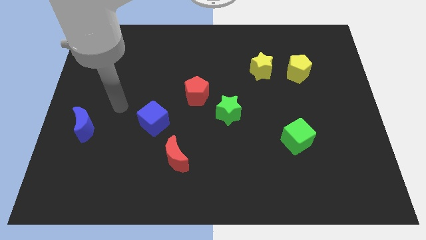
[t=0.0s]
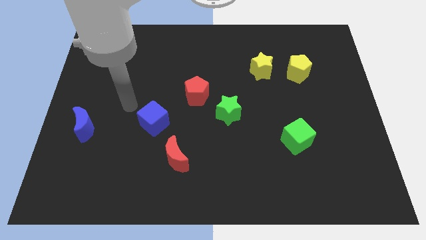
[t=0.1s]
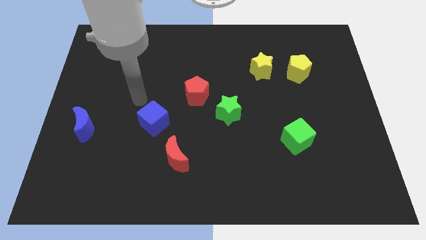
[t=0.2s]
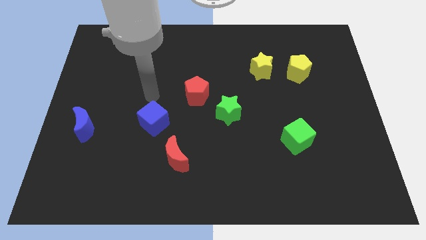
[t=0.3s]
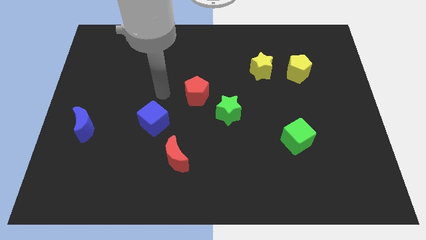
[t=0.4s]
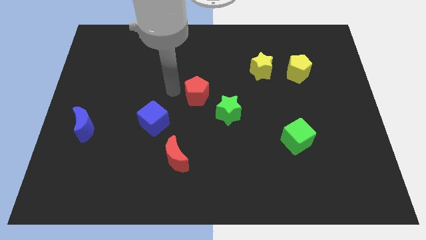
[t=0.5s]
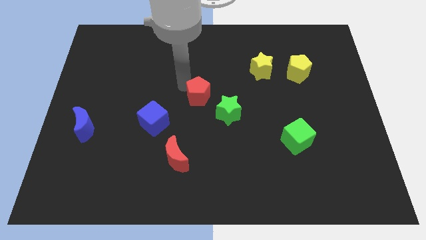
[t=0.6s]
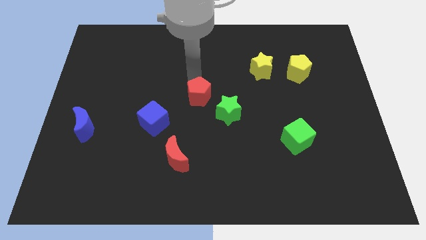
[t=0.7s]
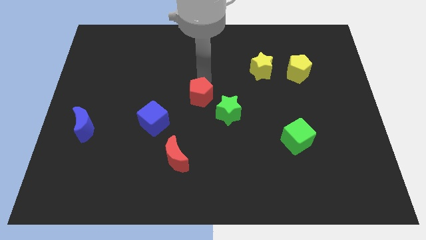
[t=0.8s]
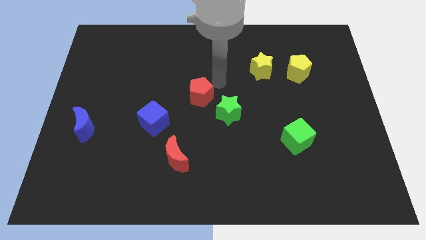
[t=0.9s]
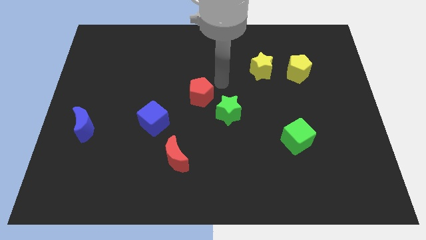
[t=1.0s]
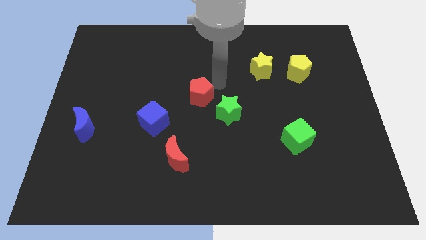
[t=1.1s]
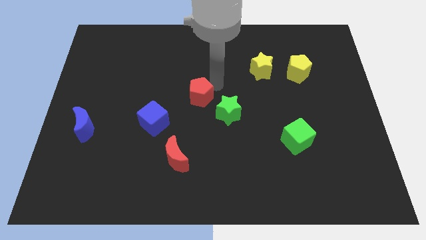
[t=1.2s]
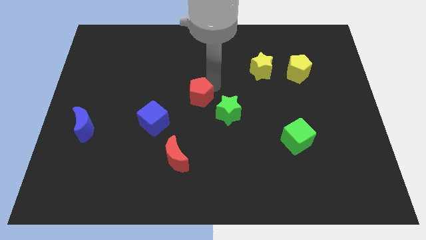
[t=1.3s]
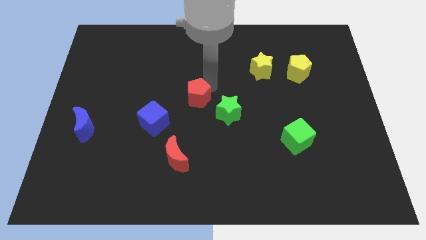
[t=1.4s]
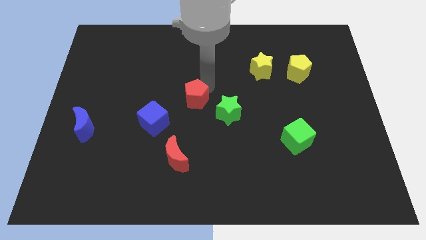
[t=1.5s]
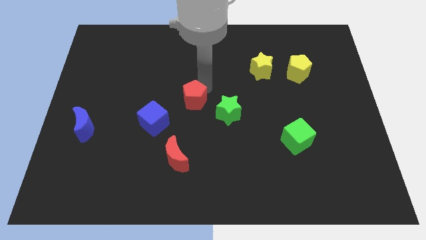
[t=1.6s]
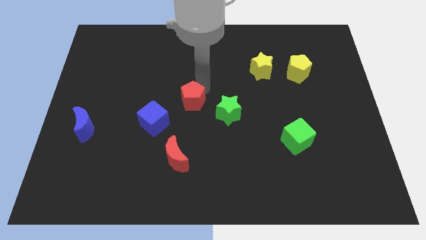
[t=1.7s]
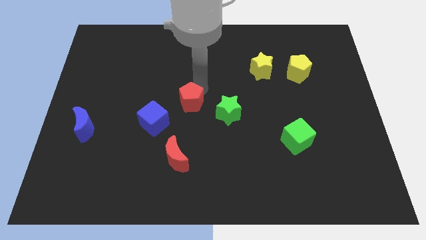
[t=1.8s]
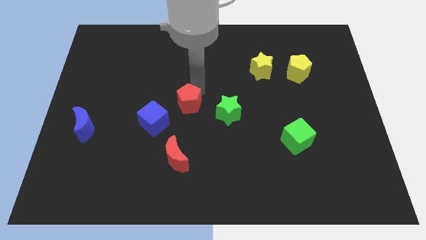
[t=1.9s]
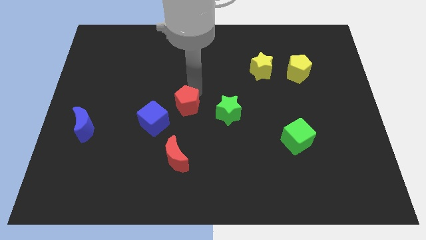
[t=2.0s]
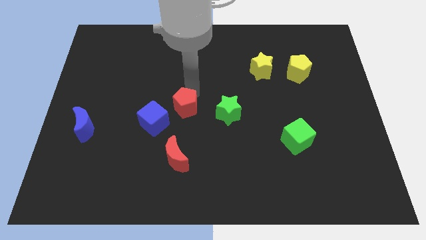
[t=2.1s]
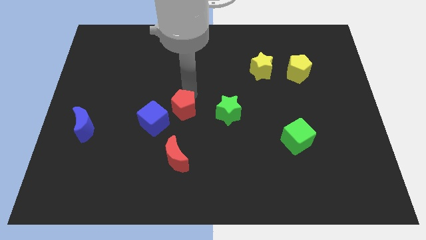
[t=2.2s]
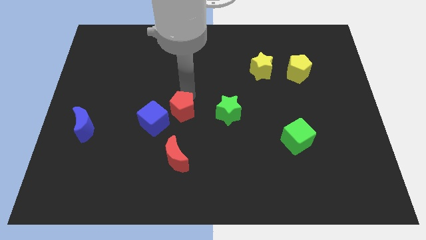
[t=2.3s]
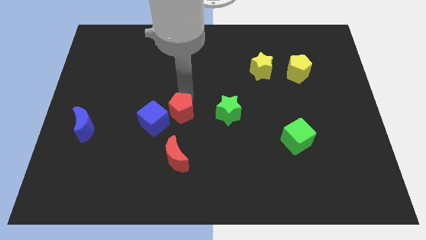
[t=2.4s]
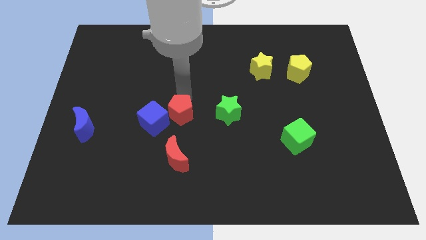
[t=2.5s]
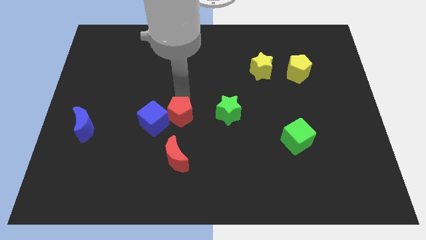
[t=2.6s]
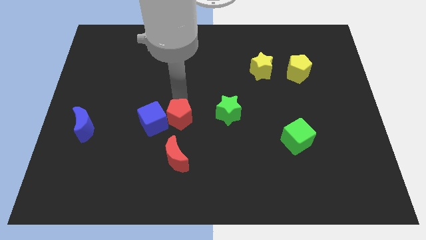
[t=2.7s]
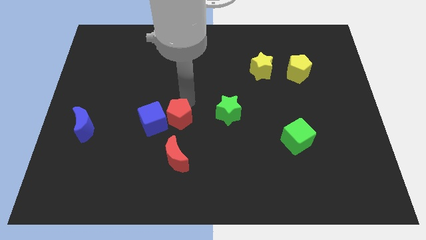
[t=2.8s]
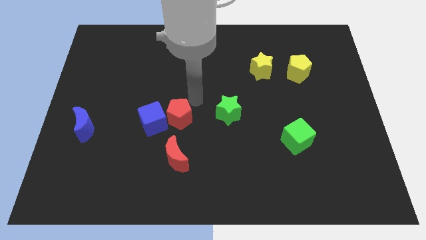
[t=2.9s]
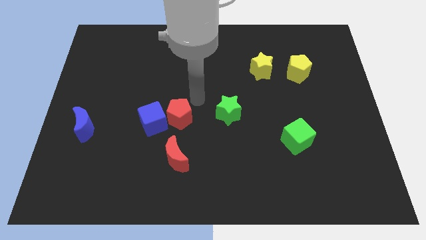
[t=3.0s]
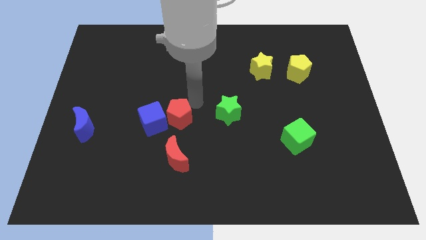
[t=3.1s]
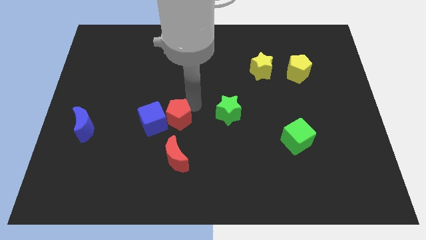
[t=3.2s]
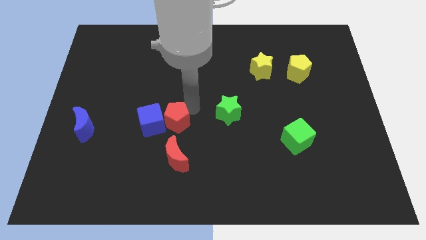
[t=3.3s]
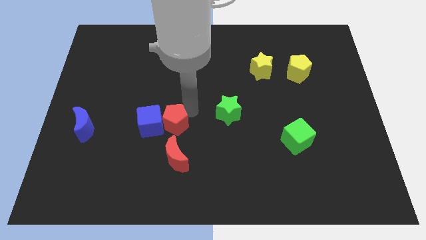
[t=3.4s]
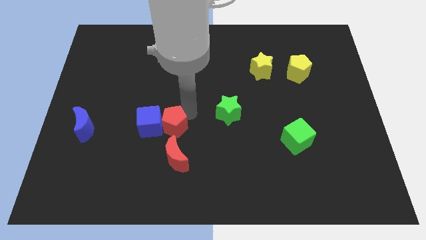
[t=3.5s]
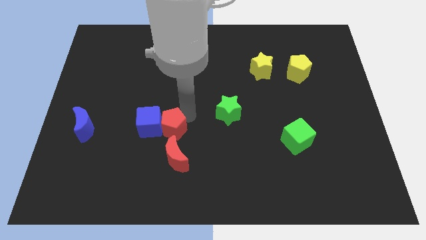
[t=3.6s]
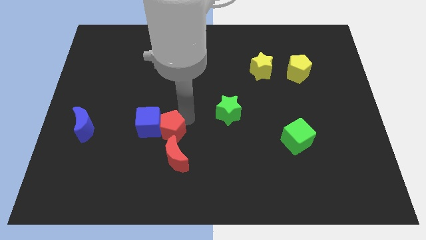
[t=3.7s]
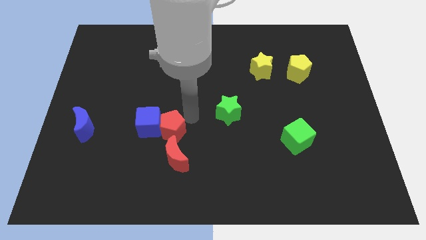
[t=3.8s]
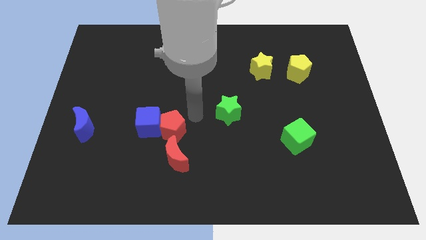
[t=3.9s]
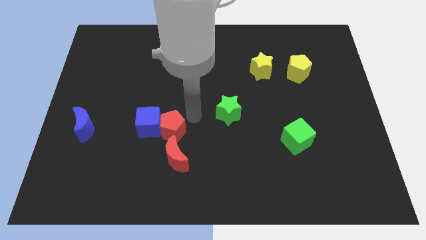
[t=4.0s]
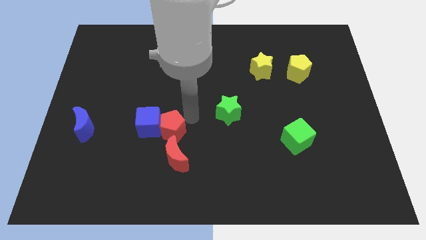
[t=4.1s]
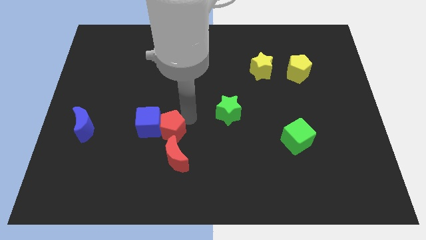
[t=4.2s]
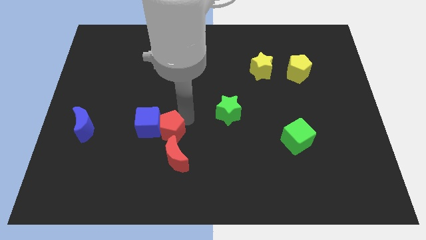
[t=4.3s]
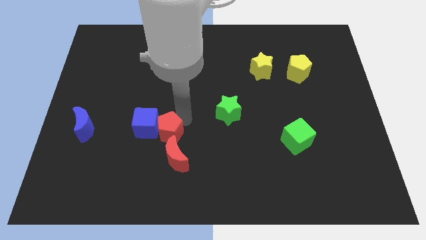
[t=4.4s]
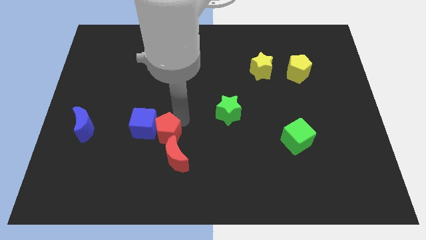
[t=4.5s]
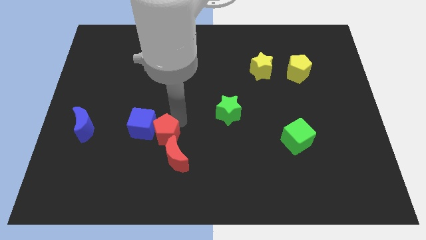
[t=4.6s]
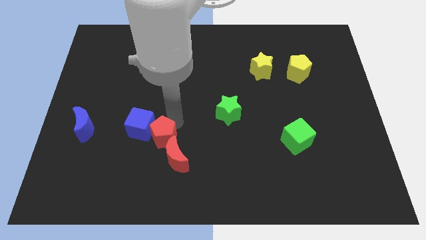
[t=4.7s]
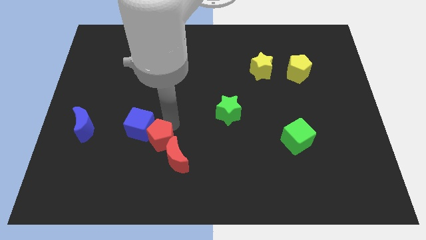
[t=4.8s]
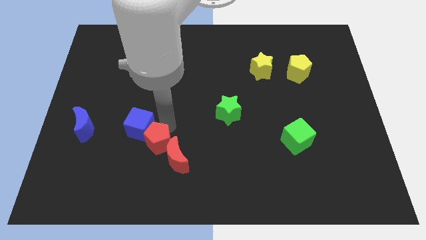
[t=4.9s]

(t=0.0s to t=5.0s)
move the red pentagon to the left of the red moon

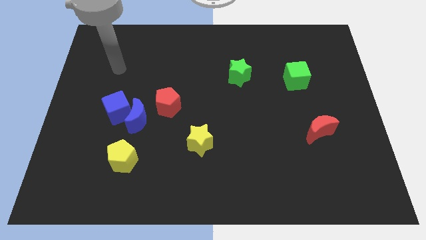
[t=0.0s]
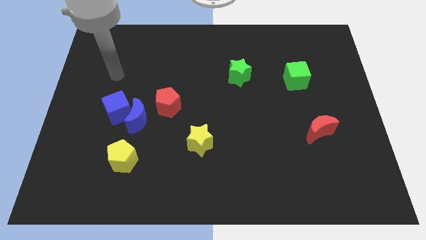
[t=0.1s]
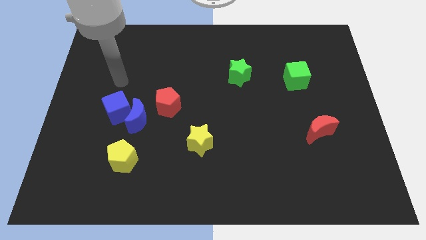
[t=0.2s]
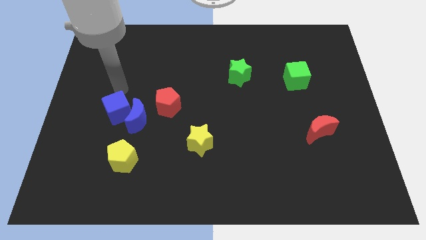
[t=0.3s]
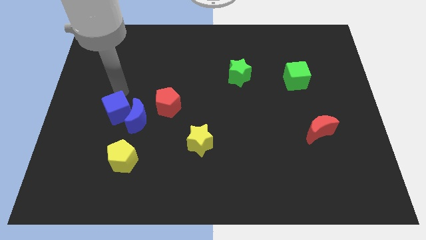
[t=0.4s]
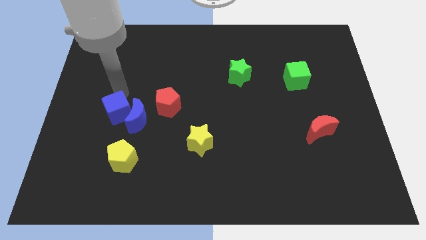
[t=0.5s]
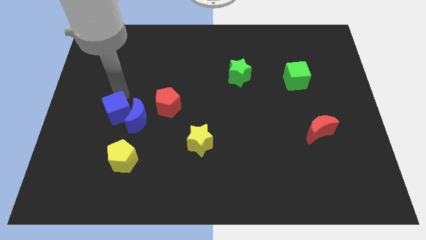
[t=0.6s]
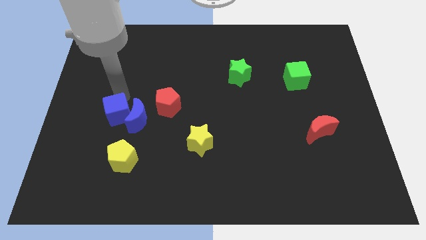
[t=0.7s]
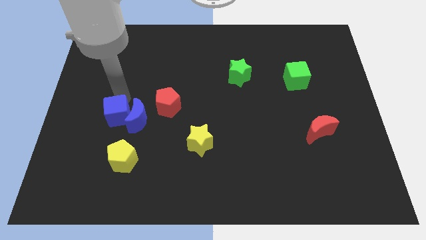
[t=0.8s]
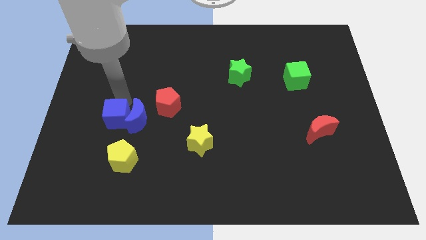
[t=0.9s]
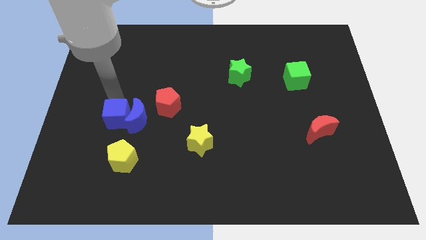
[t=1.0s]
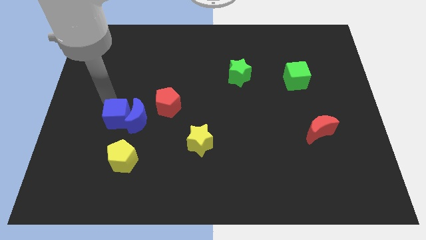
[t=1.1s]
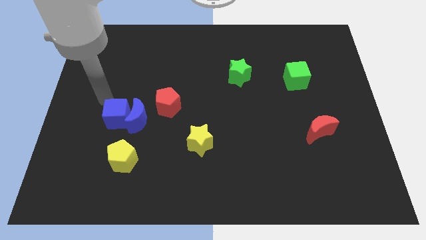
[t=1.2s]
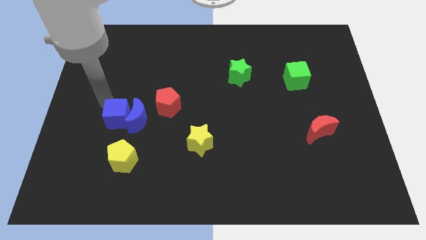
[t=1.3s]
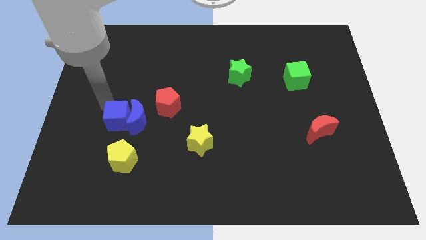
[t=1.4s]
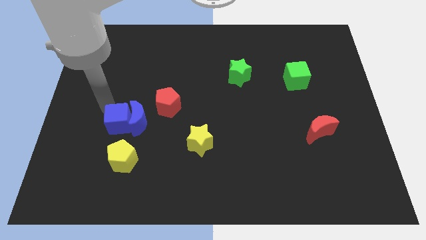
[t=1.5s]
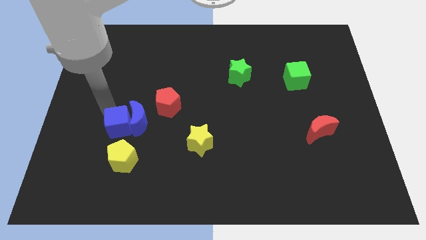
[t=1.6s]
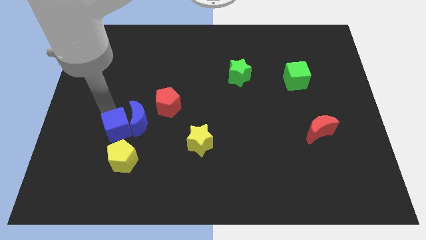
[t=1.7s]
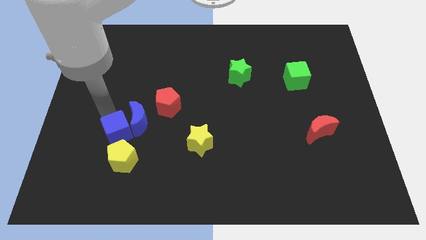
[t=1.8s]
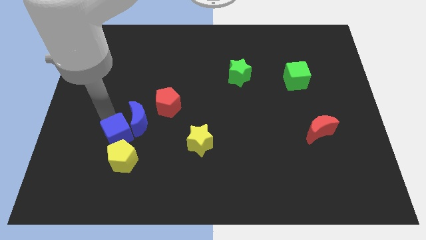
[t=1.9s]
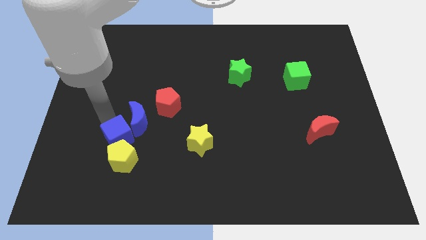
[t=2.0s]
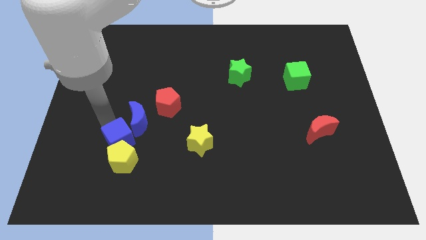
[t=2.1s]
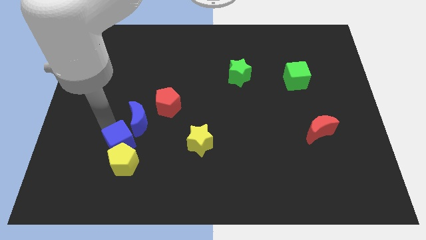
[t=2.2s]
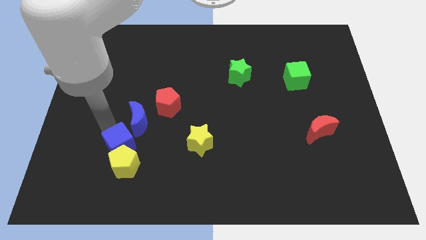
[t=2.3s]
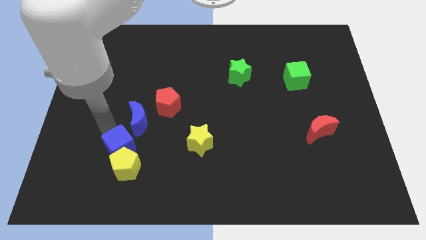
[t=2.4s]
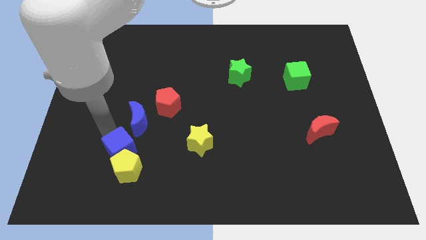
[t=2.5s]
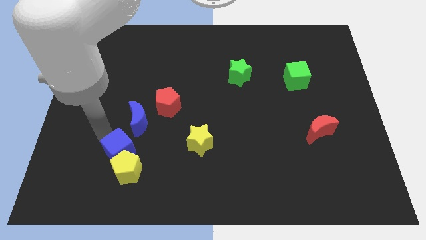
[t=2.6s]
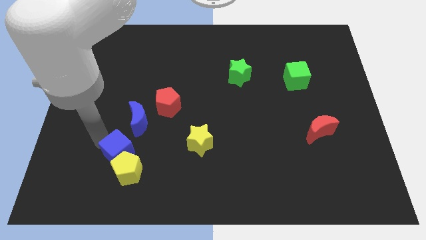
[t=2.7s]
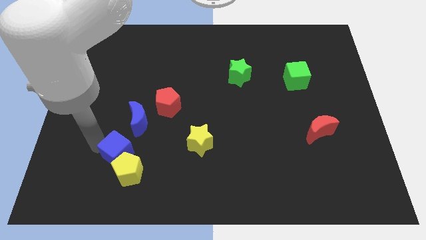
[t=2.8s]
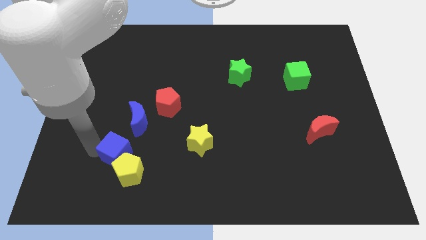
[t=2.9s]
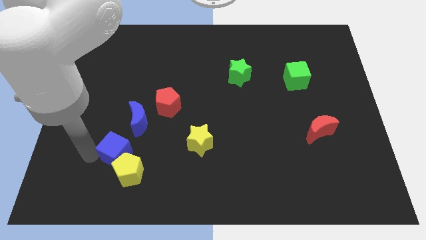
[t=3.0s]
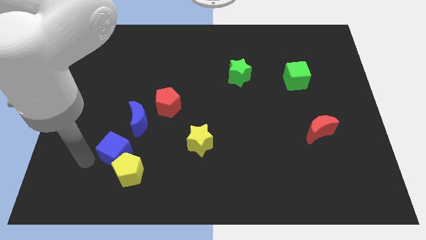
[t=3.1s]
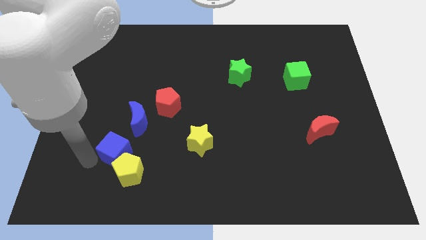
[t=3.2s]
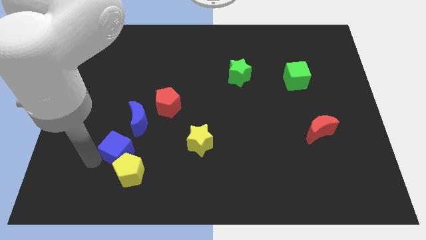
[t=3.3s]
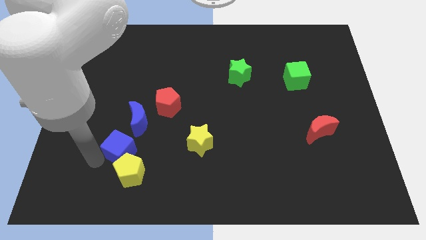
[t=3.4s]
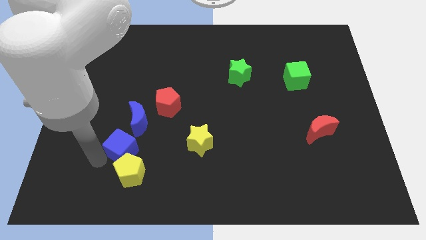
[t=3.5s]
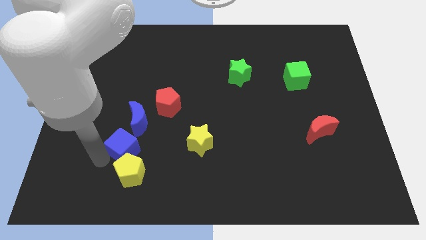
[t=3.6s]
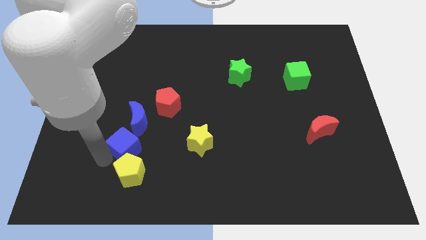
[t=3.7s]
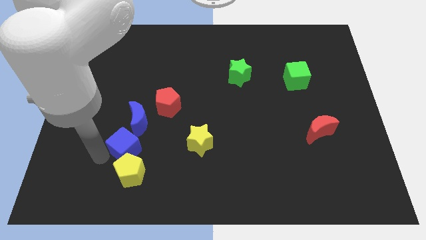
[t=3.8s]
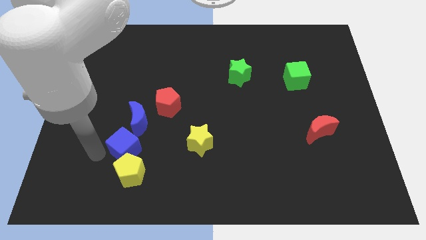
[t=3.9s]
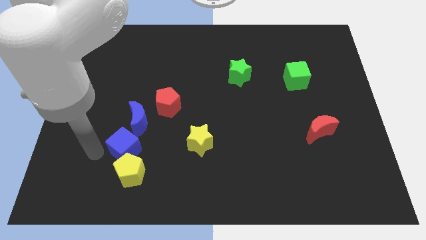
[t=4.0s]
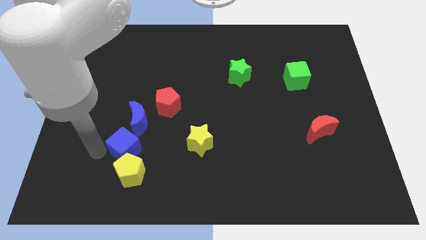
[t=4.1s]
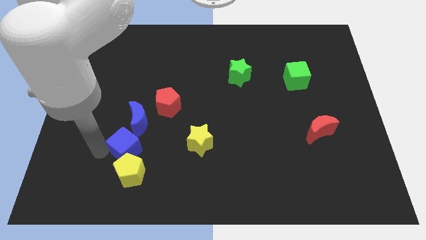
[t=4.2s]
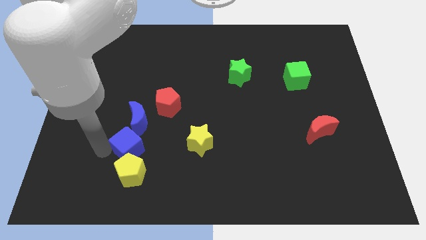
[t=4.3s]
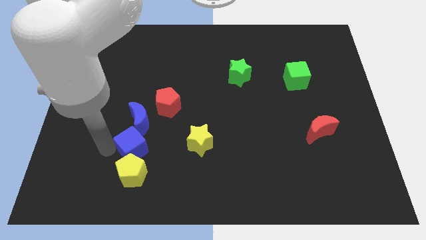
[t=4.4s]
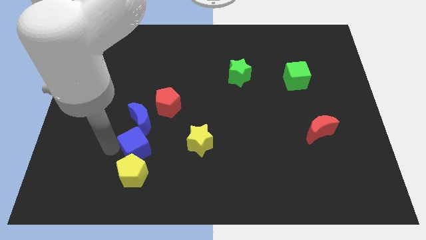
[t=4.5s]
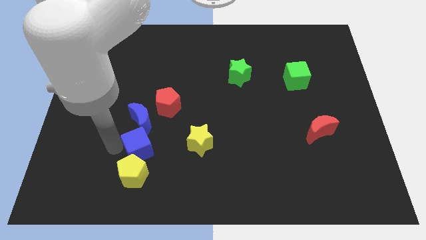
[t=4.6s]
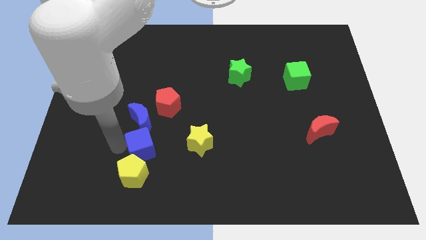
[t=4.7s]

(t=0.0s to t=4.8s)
put the blue cube to the bottom side of the red pentagon
